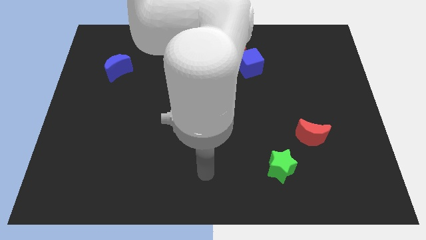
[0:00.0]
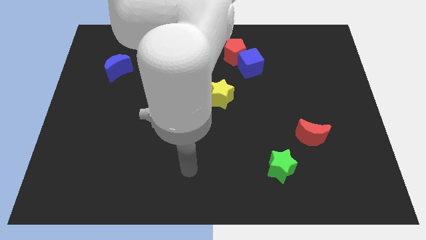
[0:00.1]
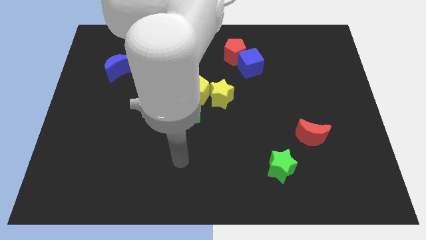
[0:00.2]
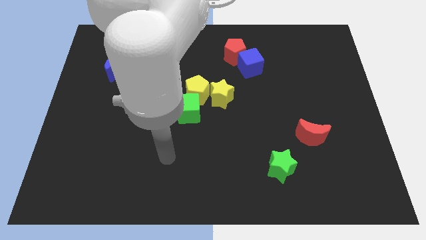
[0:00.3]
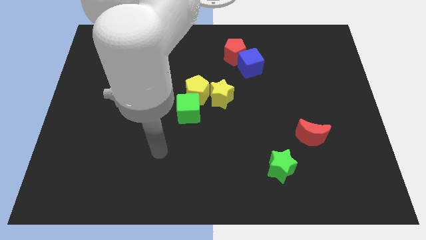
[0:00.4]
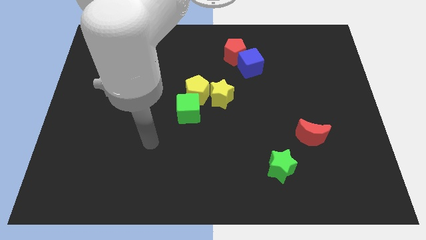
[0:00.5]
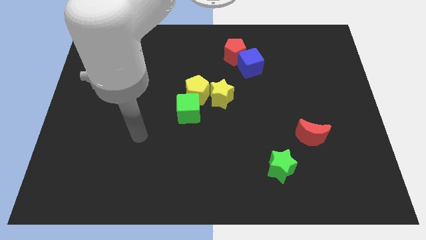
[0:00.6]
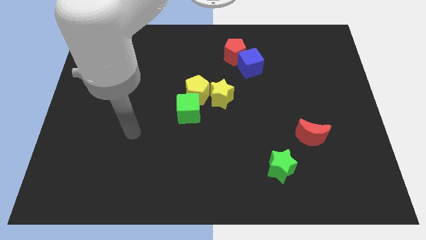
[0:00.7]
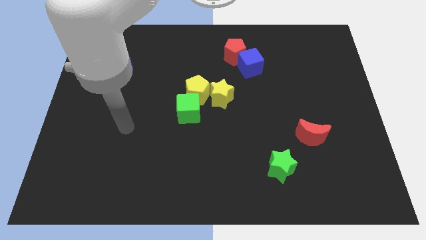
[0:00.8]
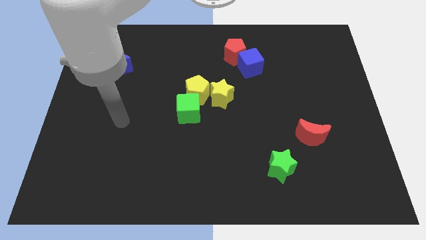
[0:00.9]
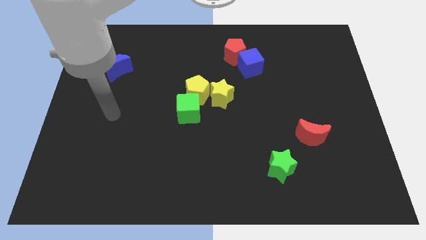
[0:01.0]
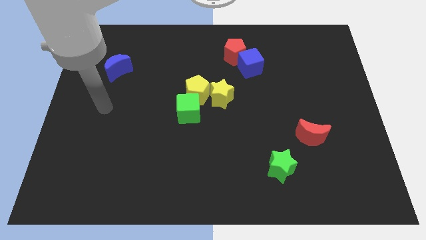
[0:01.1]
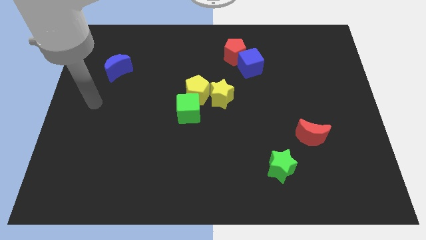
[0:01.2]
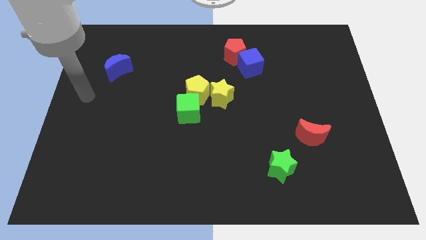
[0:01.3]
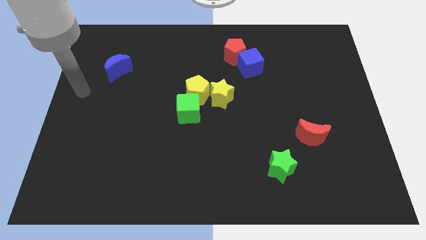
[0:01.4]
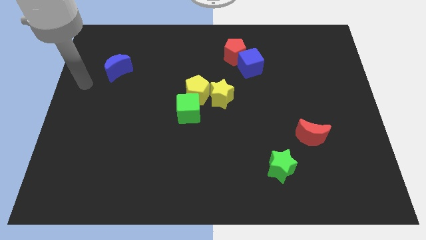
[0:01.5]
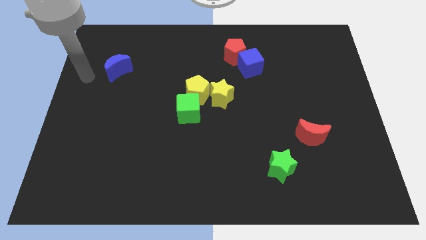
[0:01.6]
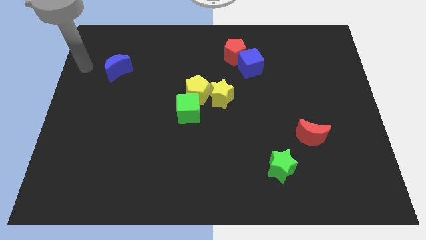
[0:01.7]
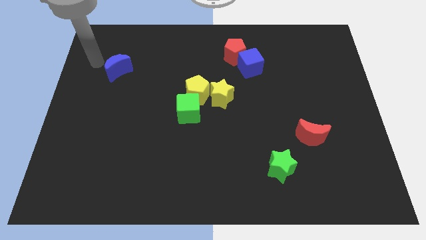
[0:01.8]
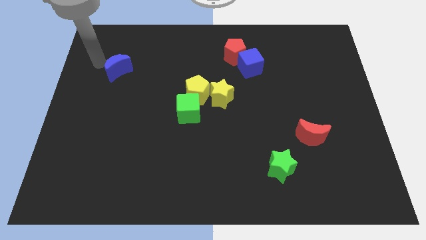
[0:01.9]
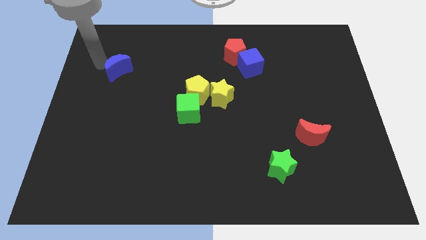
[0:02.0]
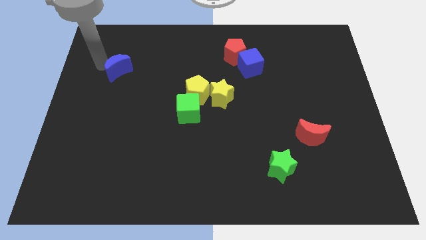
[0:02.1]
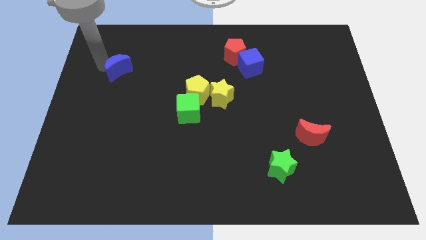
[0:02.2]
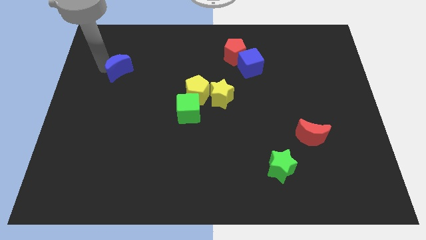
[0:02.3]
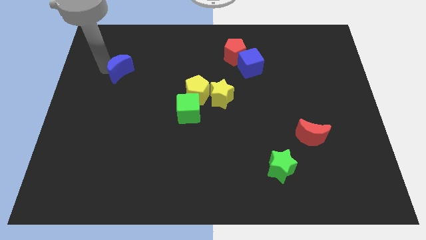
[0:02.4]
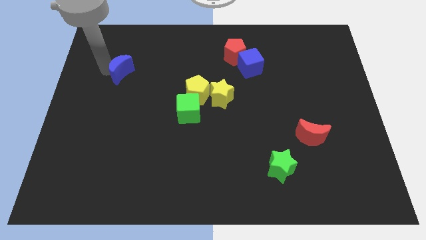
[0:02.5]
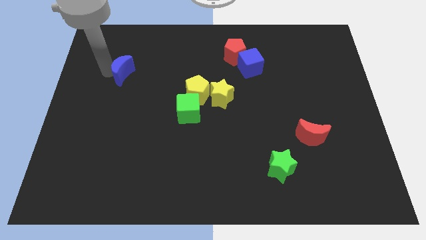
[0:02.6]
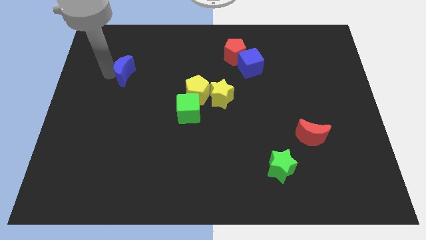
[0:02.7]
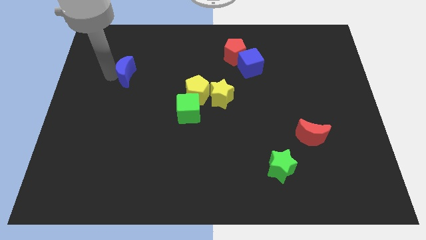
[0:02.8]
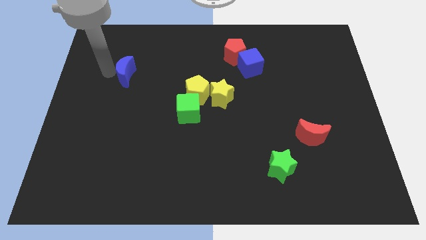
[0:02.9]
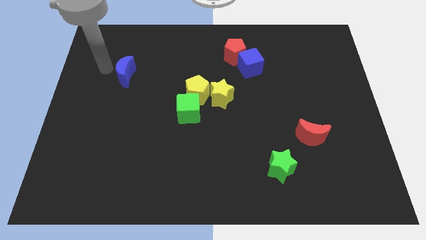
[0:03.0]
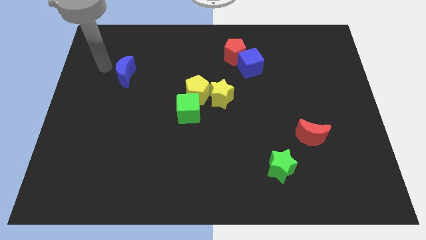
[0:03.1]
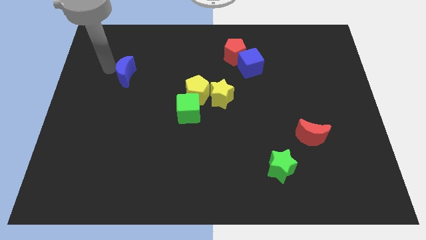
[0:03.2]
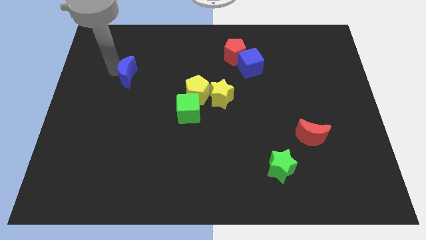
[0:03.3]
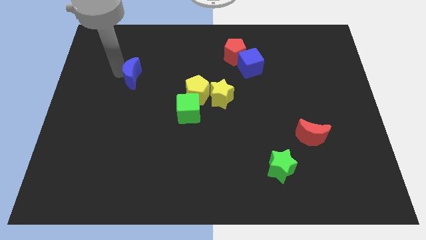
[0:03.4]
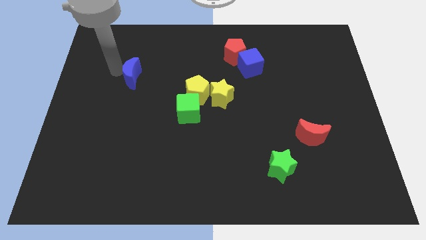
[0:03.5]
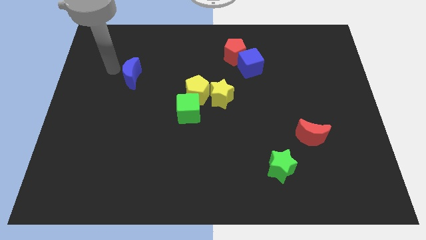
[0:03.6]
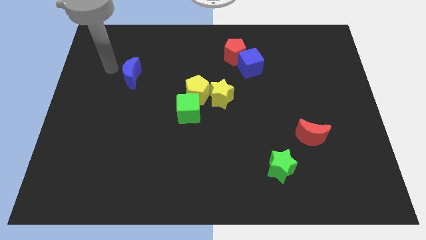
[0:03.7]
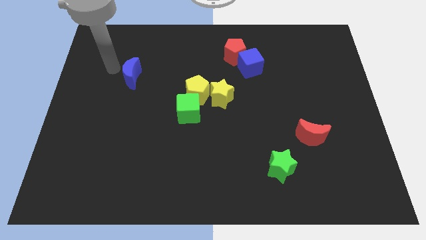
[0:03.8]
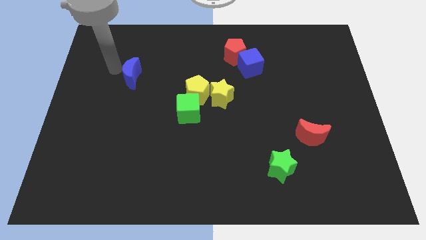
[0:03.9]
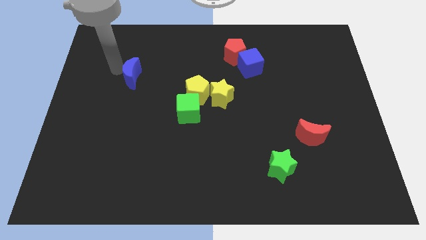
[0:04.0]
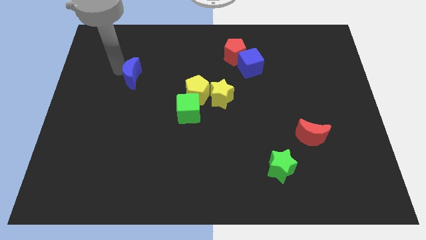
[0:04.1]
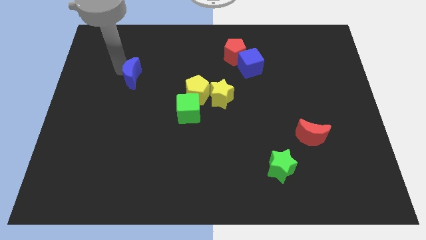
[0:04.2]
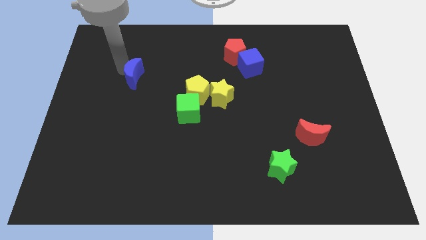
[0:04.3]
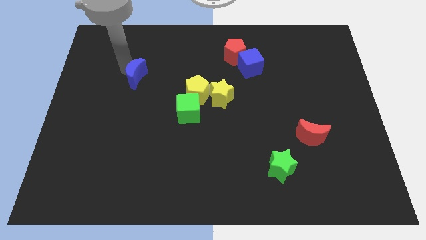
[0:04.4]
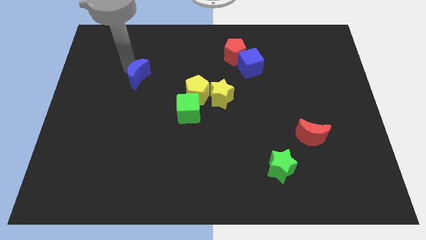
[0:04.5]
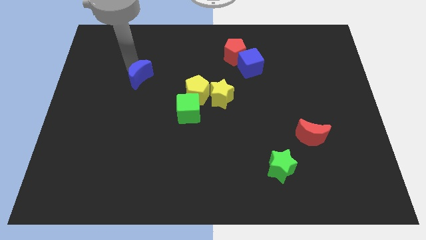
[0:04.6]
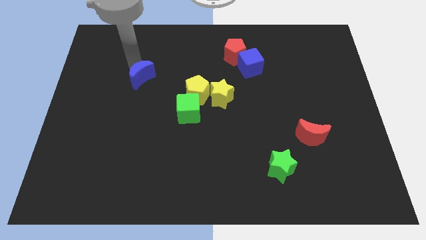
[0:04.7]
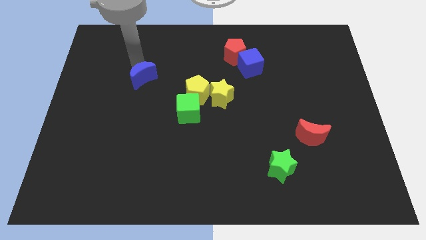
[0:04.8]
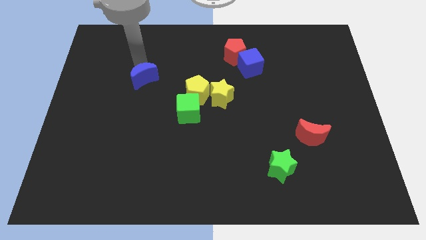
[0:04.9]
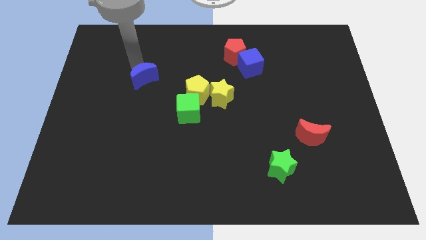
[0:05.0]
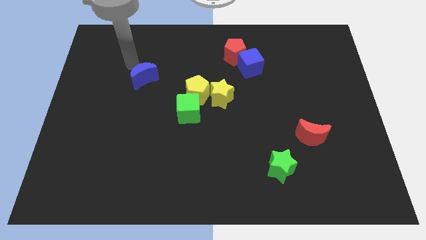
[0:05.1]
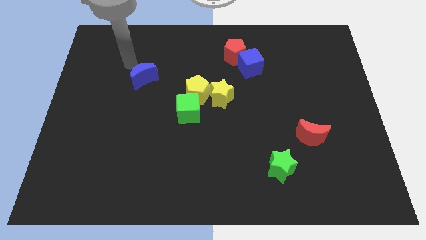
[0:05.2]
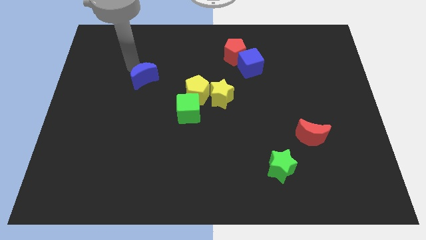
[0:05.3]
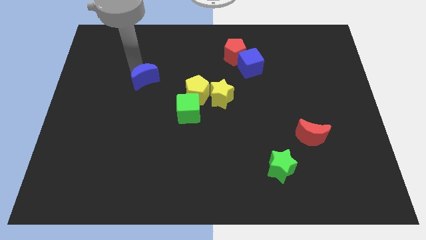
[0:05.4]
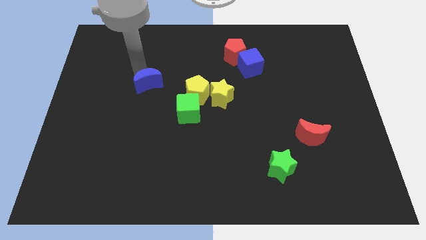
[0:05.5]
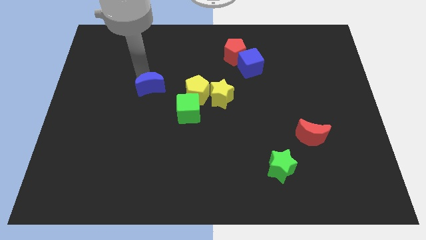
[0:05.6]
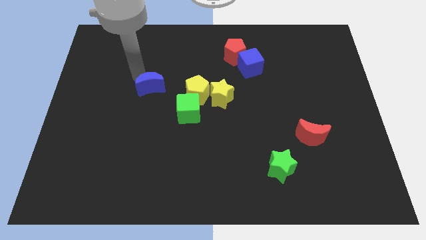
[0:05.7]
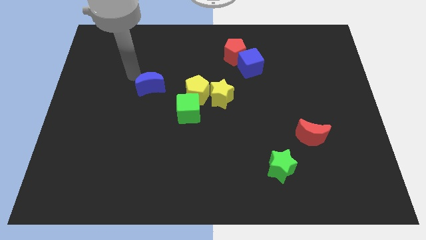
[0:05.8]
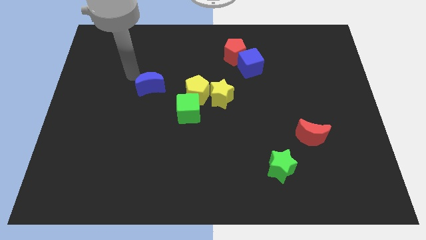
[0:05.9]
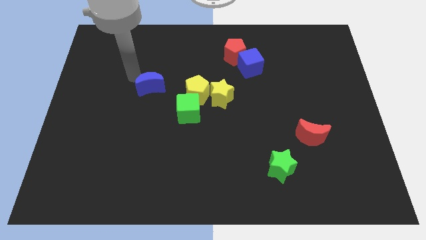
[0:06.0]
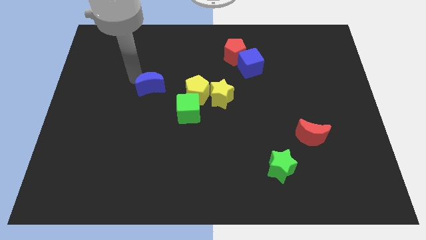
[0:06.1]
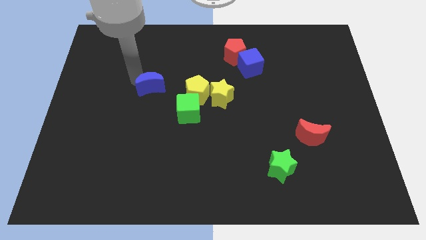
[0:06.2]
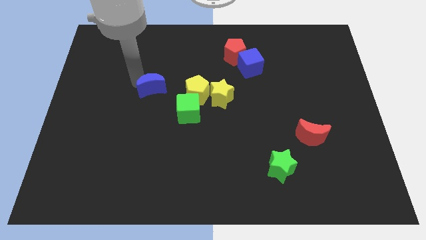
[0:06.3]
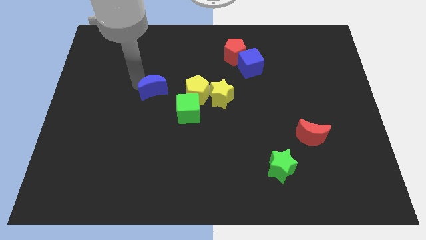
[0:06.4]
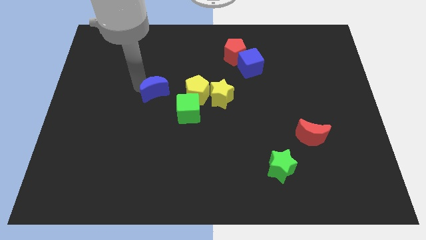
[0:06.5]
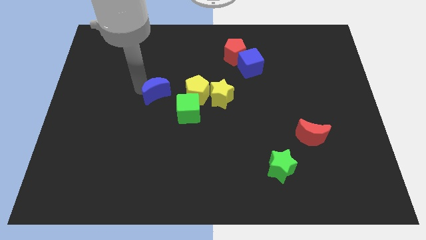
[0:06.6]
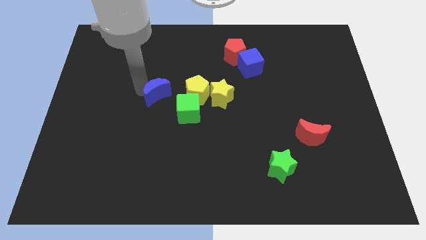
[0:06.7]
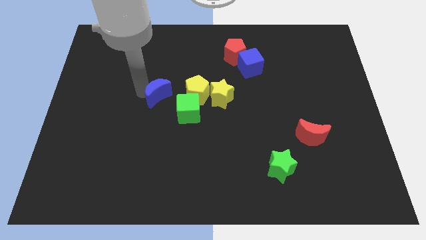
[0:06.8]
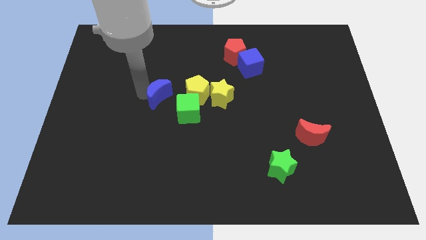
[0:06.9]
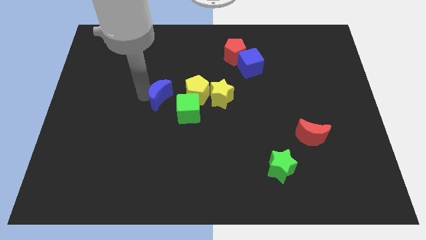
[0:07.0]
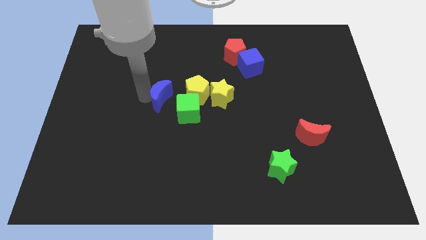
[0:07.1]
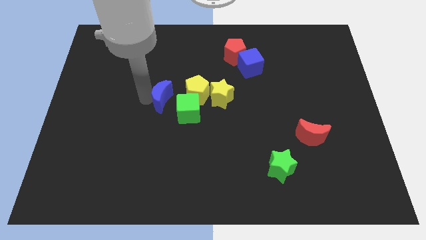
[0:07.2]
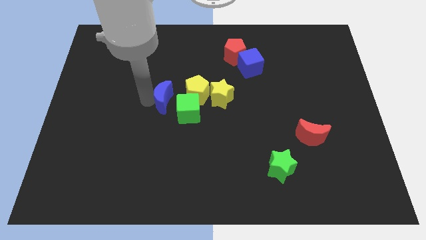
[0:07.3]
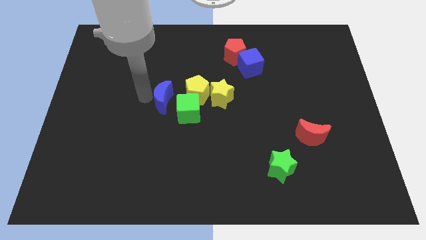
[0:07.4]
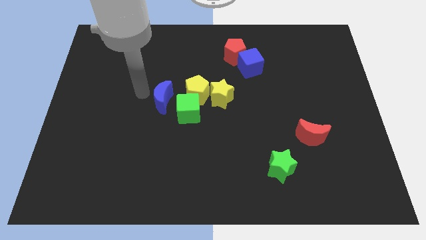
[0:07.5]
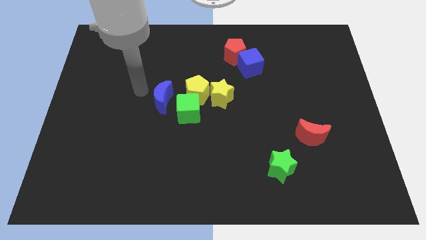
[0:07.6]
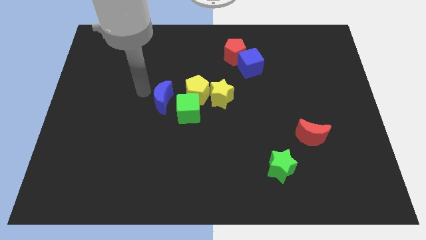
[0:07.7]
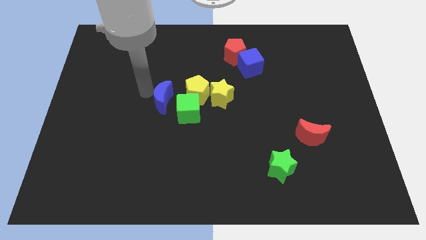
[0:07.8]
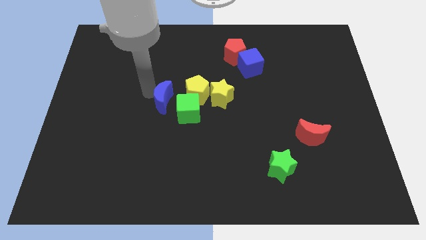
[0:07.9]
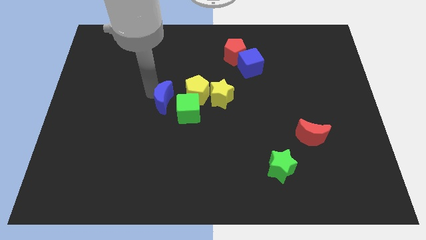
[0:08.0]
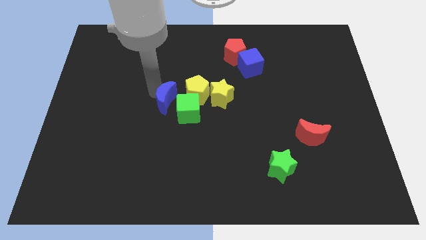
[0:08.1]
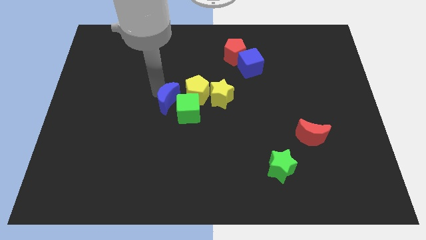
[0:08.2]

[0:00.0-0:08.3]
slide the blue moon towards the green cube
